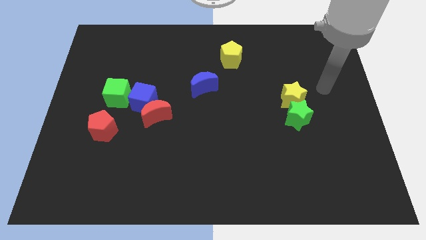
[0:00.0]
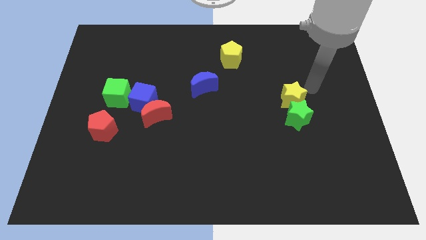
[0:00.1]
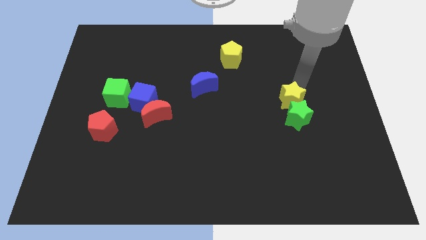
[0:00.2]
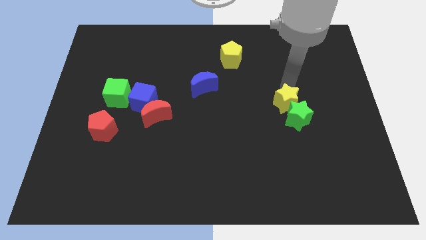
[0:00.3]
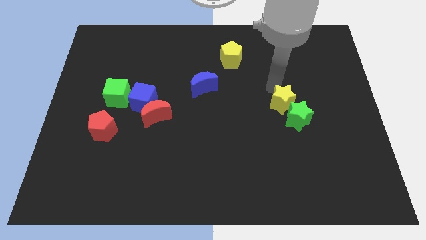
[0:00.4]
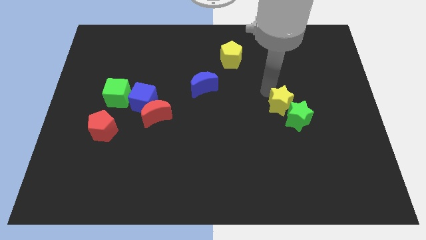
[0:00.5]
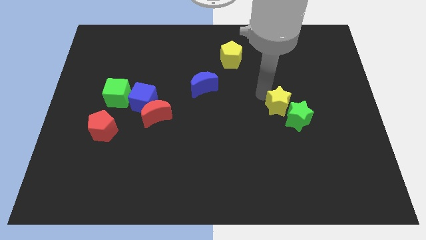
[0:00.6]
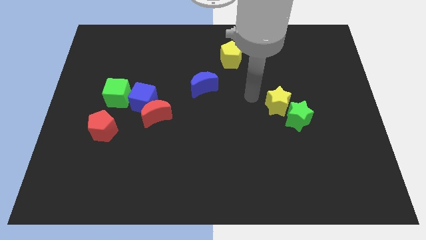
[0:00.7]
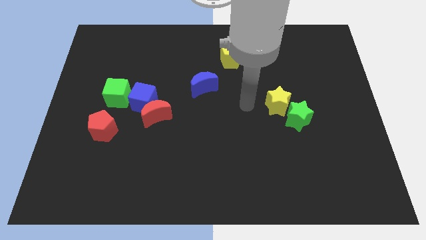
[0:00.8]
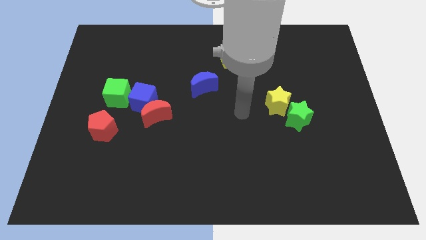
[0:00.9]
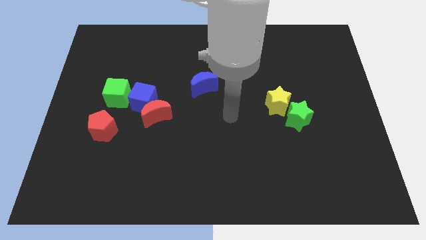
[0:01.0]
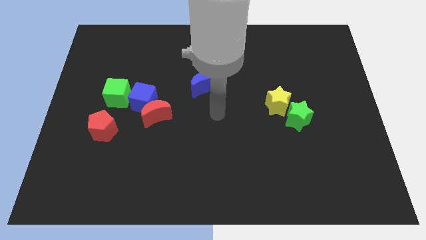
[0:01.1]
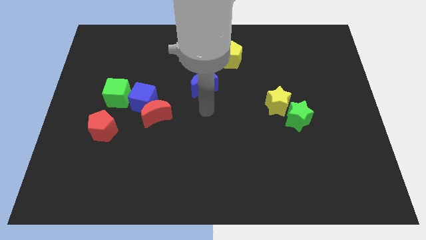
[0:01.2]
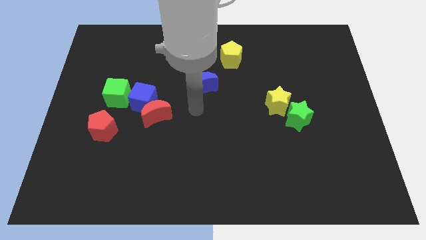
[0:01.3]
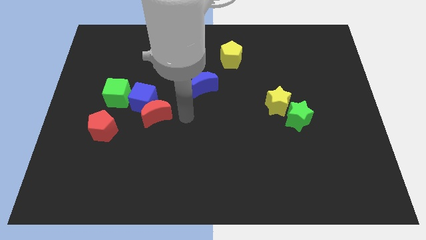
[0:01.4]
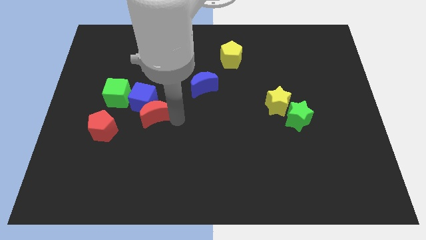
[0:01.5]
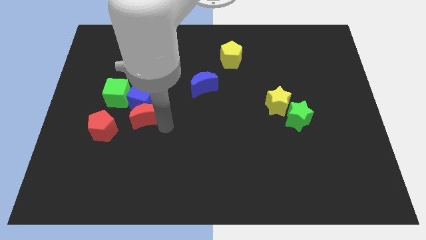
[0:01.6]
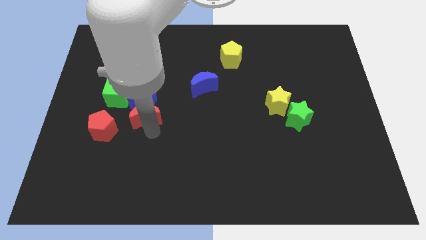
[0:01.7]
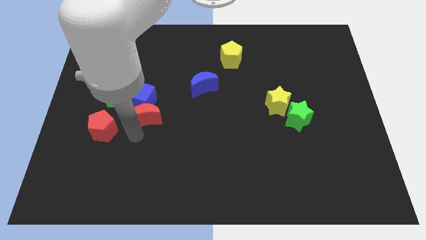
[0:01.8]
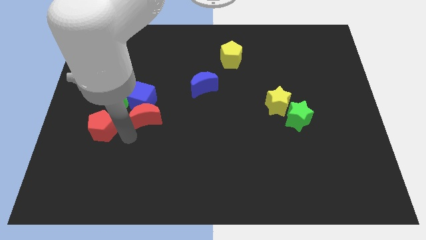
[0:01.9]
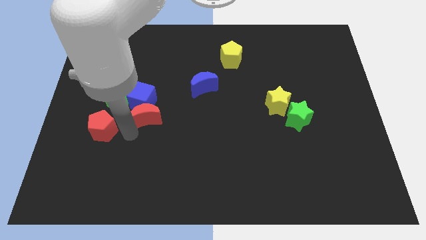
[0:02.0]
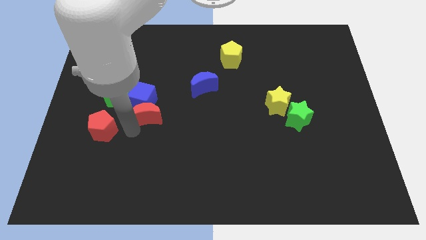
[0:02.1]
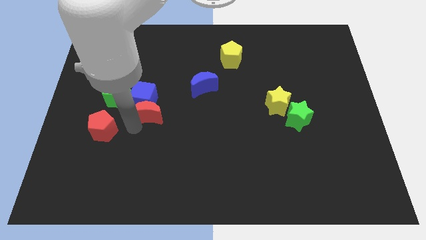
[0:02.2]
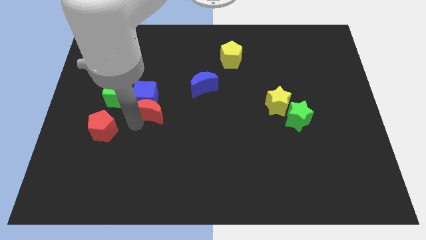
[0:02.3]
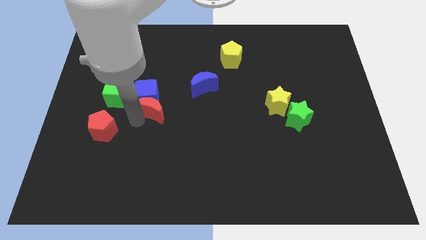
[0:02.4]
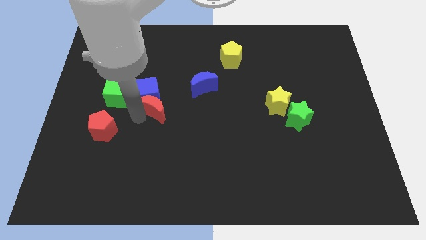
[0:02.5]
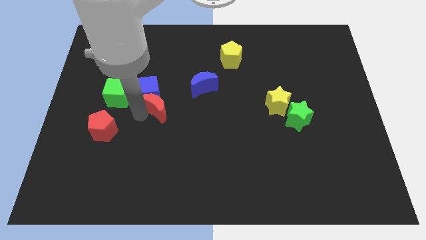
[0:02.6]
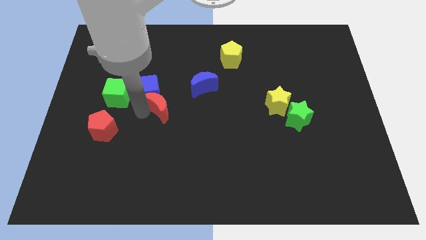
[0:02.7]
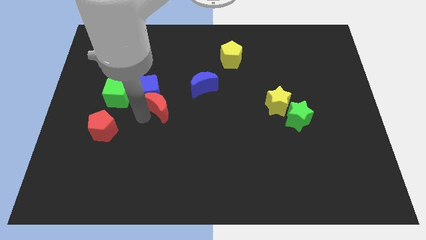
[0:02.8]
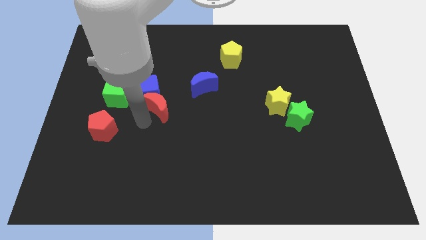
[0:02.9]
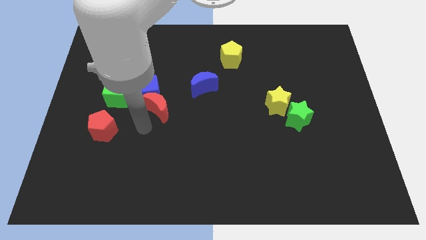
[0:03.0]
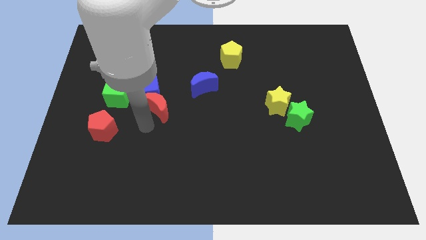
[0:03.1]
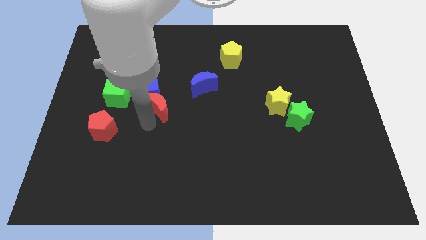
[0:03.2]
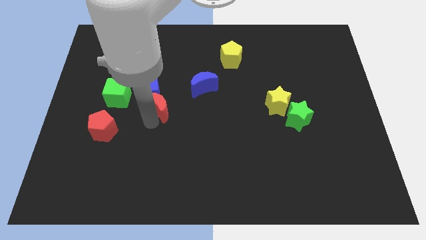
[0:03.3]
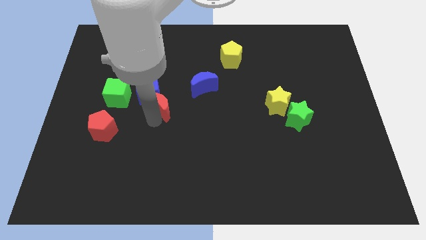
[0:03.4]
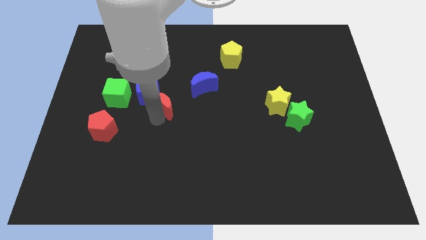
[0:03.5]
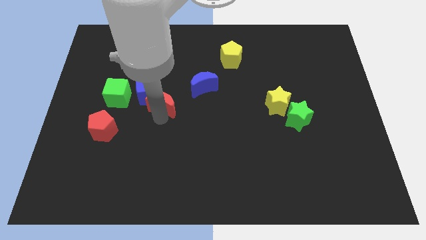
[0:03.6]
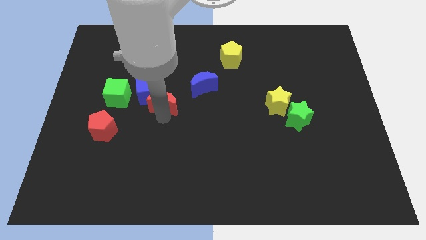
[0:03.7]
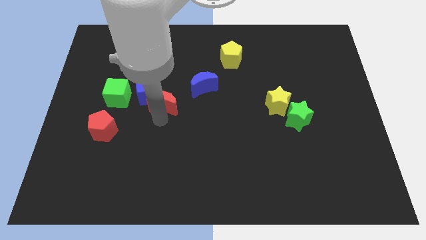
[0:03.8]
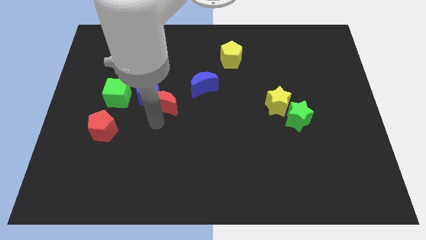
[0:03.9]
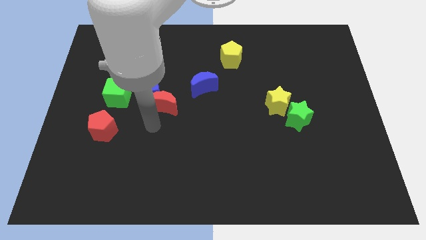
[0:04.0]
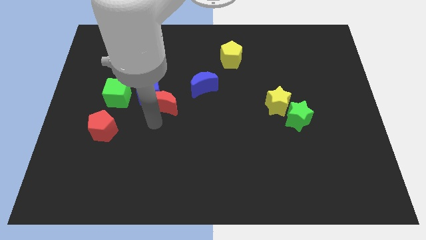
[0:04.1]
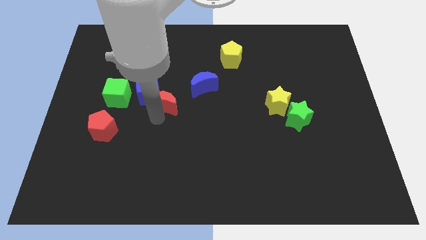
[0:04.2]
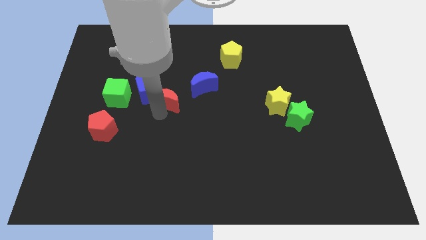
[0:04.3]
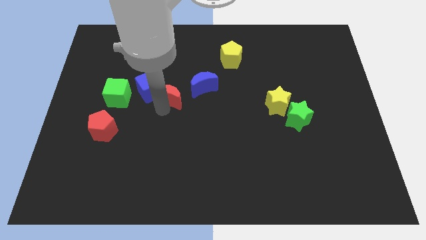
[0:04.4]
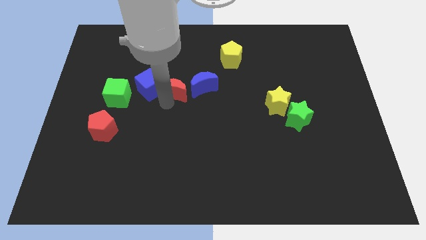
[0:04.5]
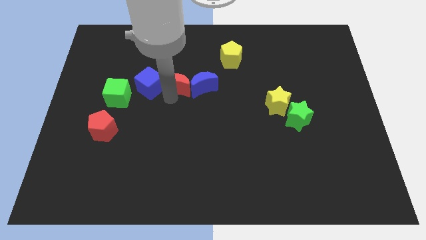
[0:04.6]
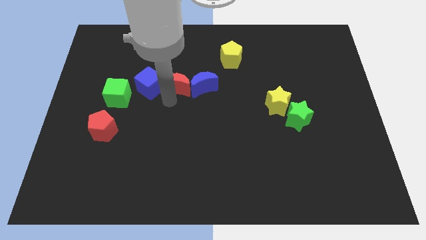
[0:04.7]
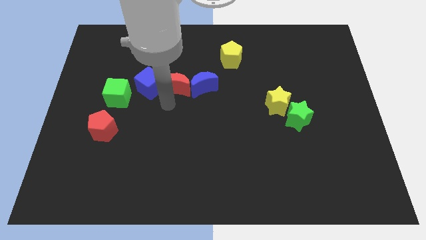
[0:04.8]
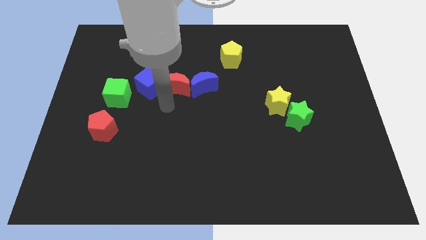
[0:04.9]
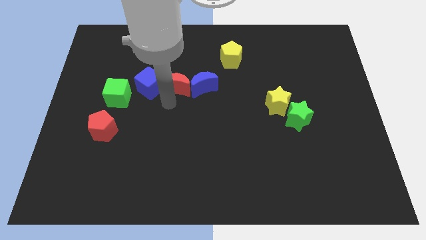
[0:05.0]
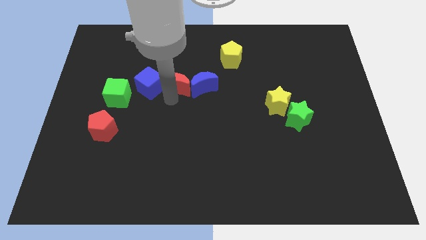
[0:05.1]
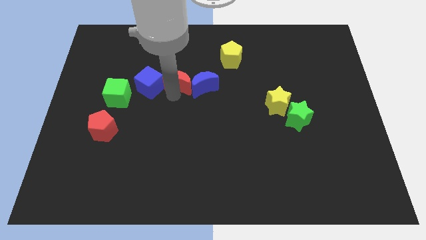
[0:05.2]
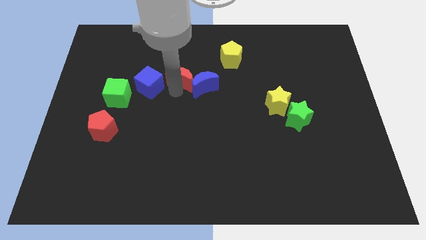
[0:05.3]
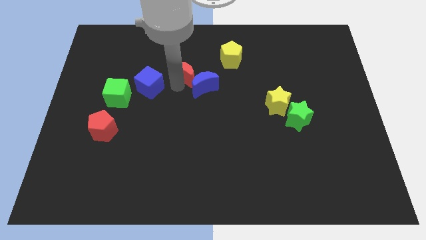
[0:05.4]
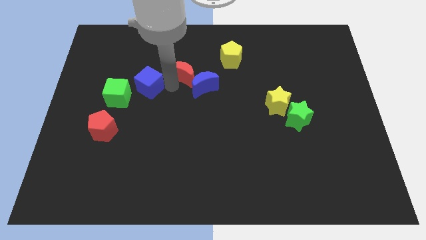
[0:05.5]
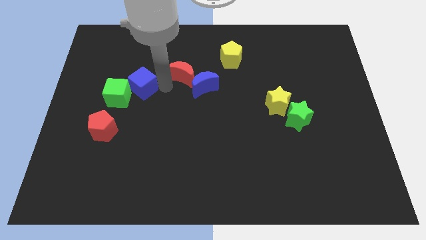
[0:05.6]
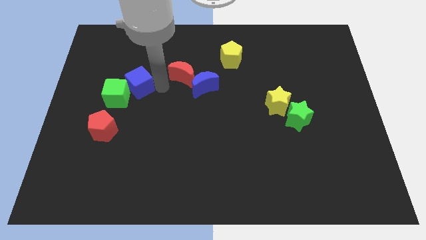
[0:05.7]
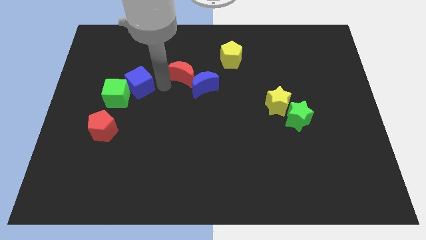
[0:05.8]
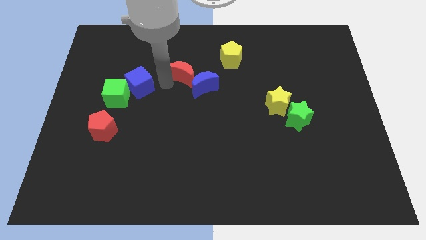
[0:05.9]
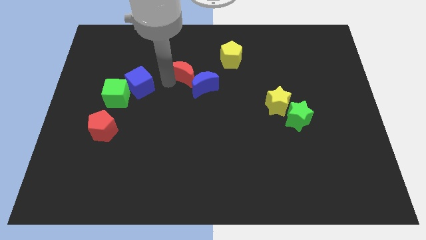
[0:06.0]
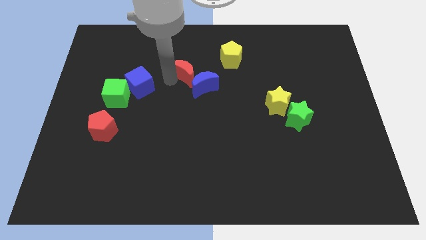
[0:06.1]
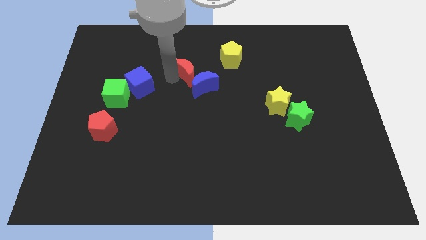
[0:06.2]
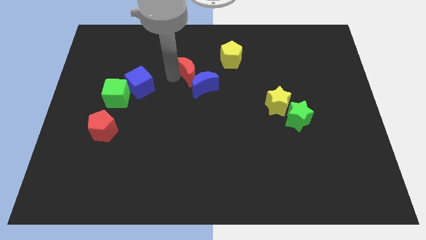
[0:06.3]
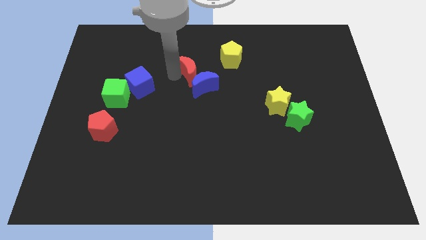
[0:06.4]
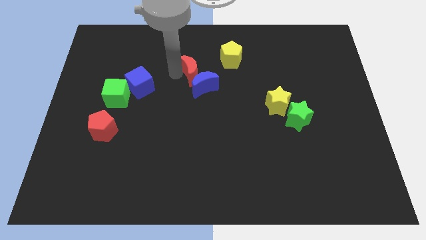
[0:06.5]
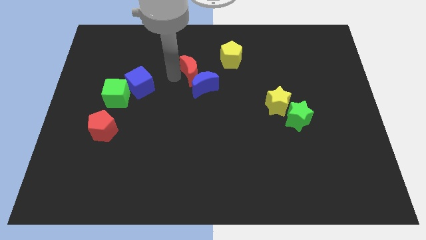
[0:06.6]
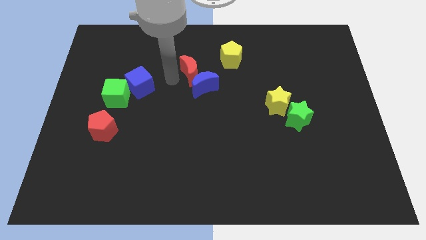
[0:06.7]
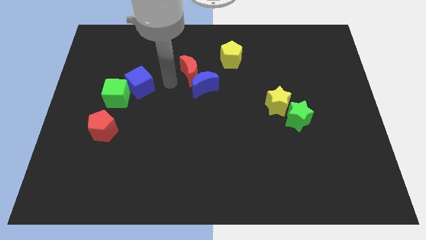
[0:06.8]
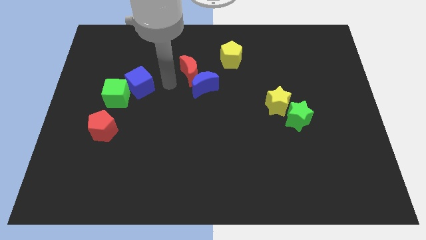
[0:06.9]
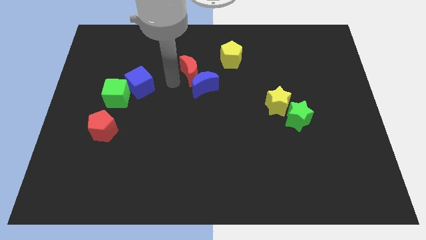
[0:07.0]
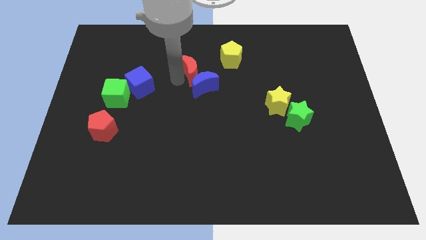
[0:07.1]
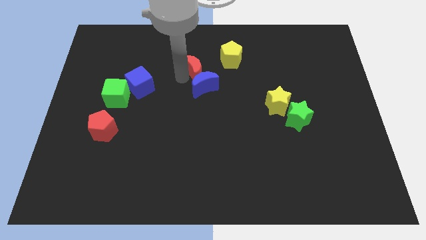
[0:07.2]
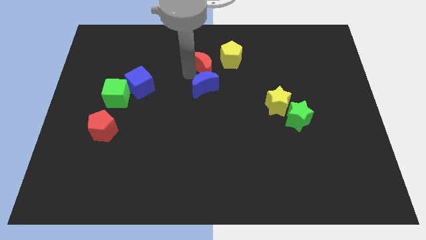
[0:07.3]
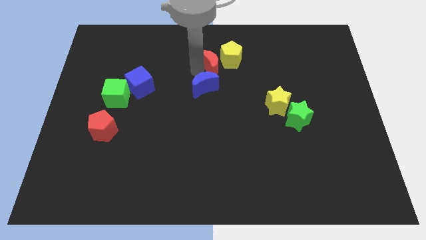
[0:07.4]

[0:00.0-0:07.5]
put the red moon towards the yellow pentagon

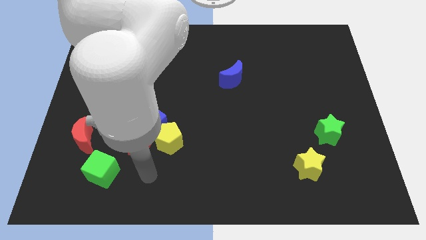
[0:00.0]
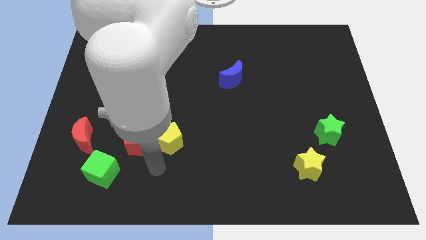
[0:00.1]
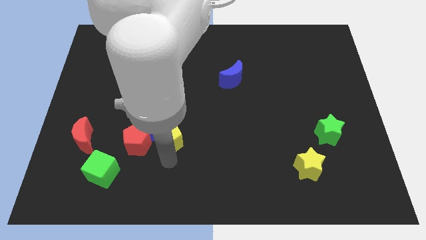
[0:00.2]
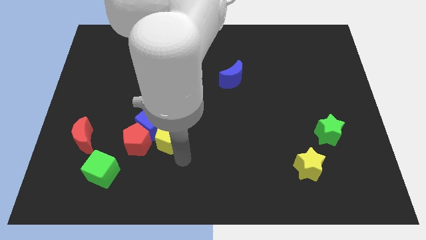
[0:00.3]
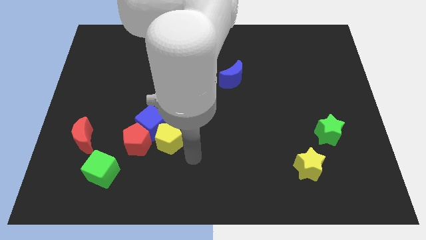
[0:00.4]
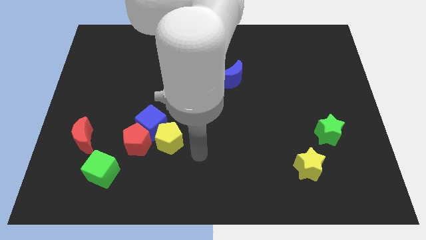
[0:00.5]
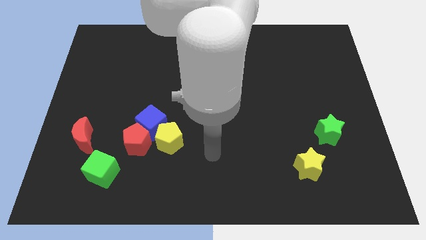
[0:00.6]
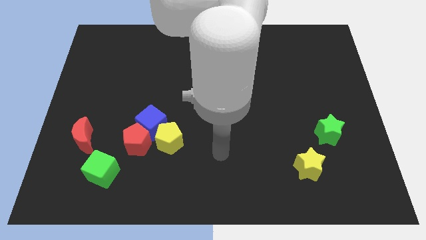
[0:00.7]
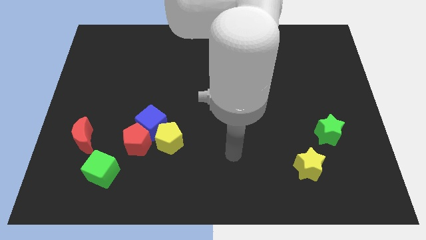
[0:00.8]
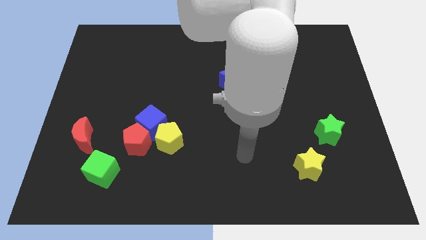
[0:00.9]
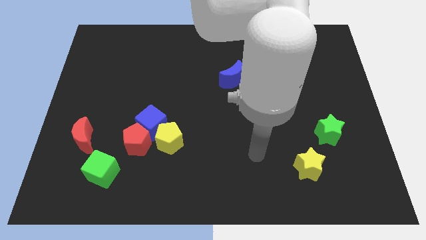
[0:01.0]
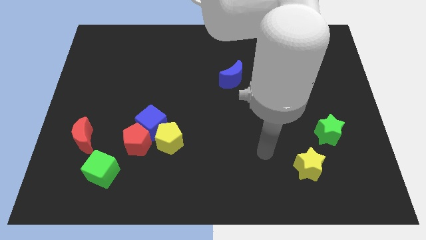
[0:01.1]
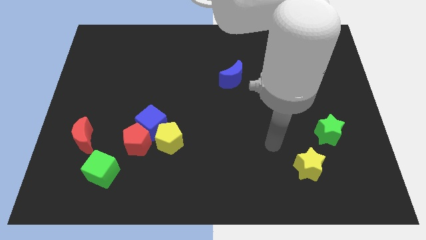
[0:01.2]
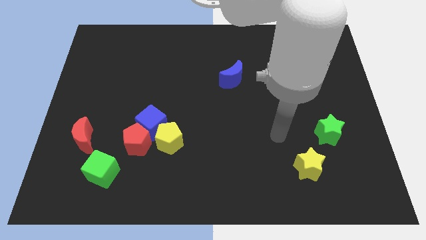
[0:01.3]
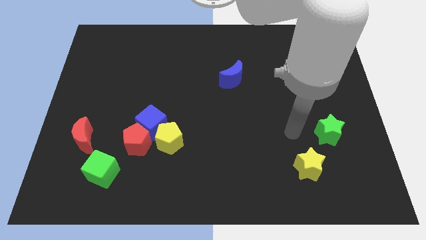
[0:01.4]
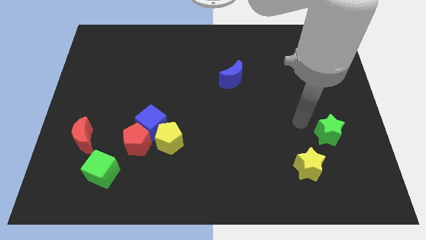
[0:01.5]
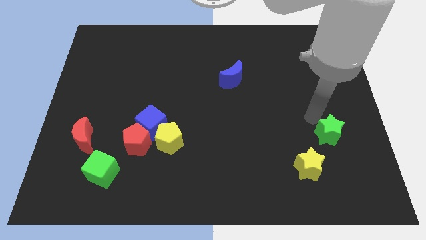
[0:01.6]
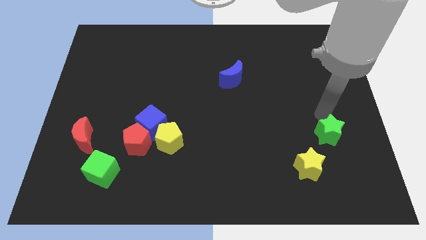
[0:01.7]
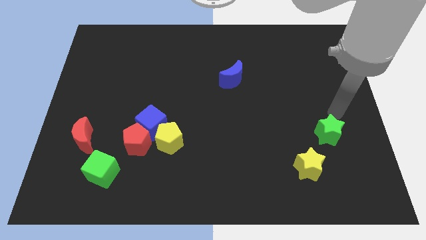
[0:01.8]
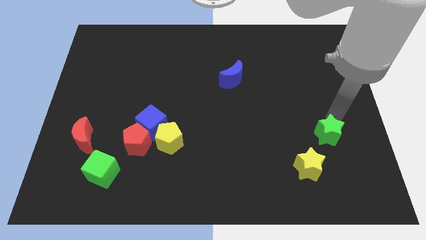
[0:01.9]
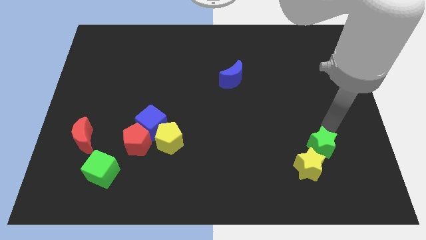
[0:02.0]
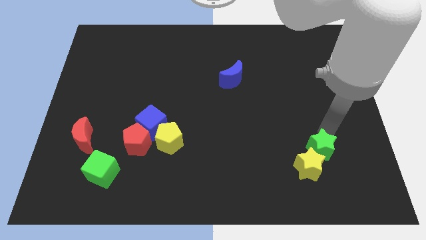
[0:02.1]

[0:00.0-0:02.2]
move the green star to the yellow star
